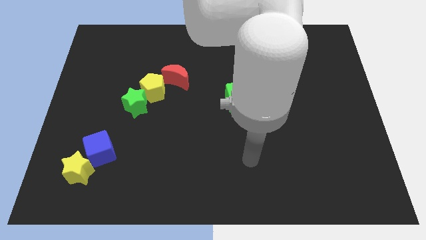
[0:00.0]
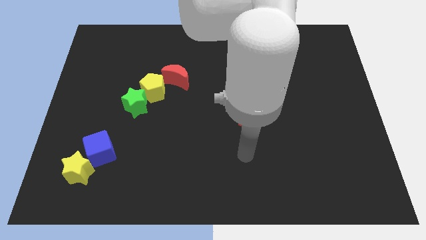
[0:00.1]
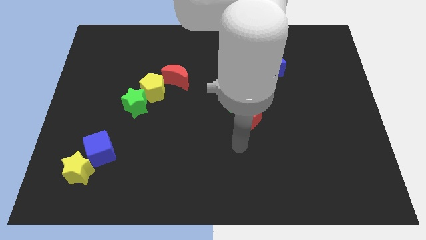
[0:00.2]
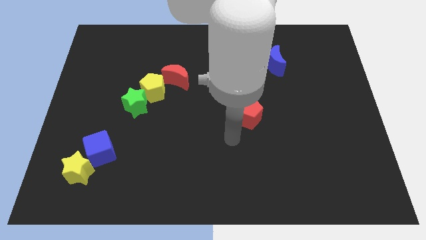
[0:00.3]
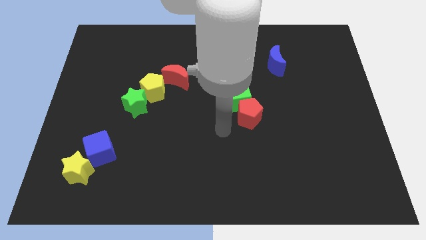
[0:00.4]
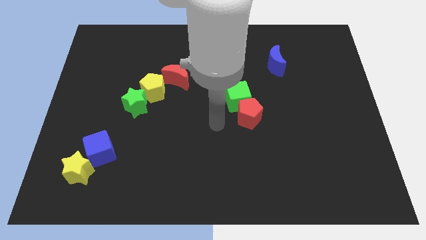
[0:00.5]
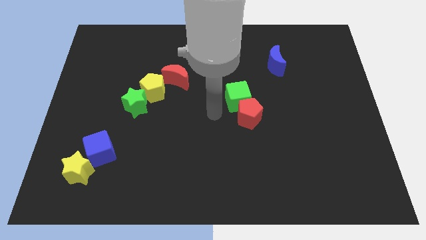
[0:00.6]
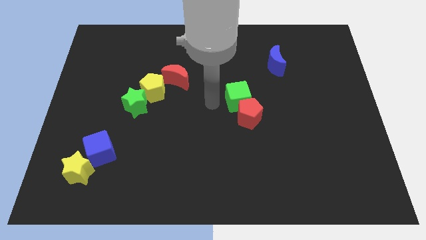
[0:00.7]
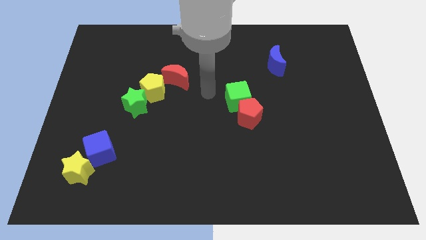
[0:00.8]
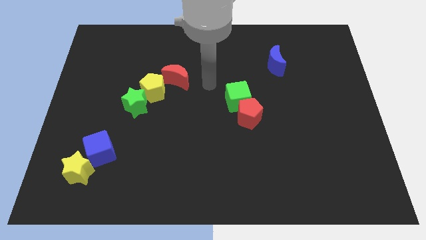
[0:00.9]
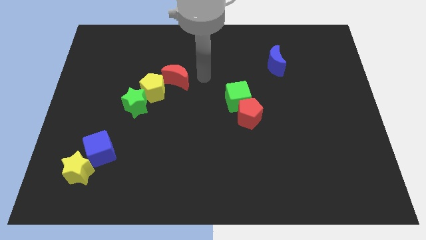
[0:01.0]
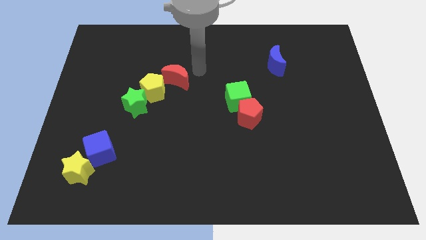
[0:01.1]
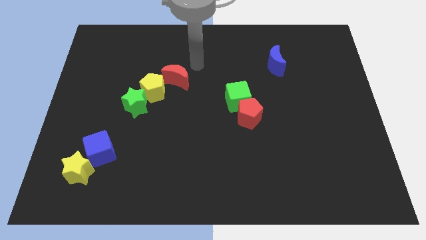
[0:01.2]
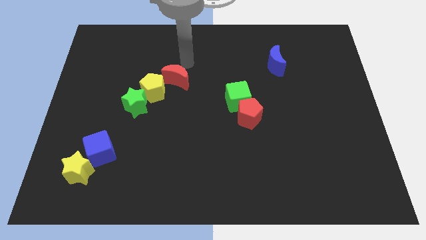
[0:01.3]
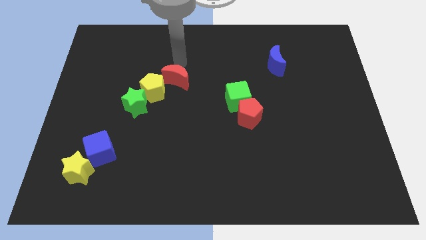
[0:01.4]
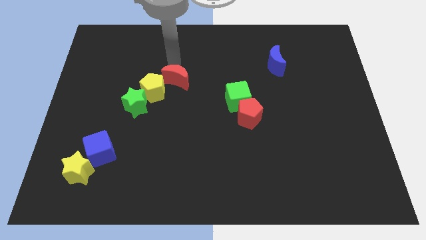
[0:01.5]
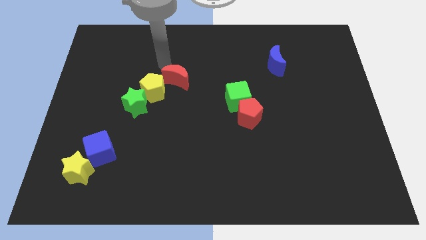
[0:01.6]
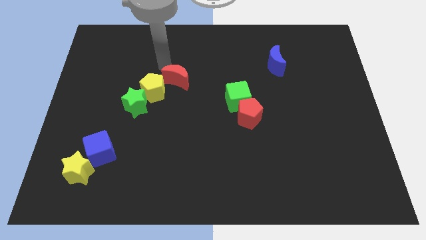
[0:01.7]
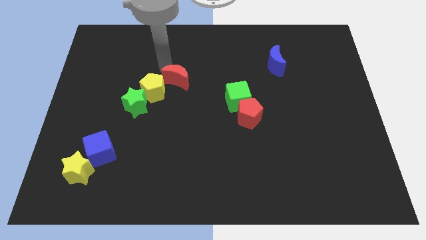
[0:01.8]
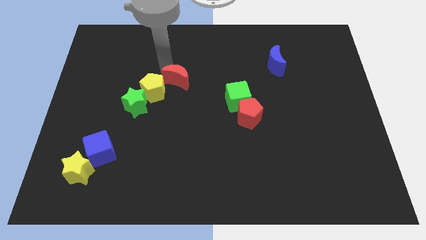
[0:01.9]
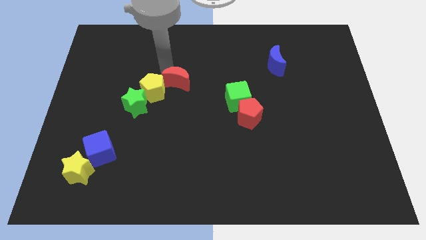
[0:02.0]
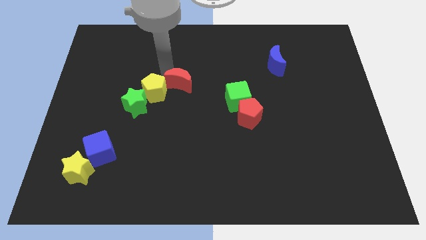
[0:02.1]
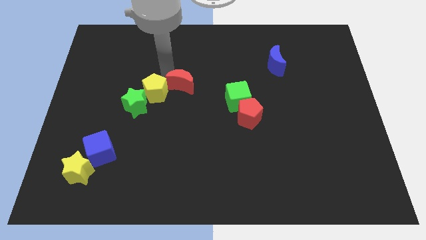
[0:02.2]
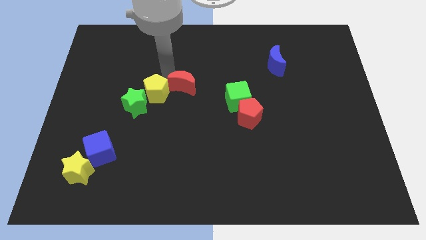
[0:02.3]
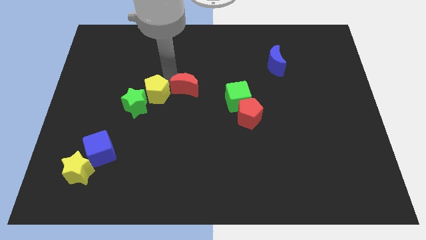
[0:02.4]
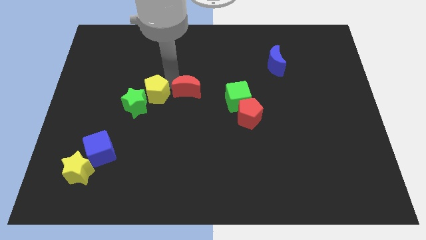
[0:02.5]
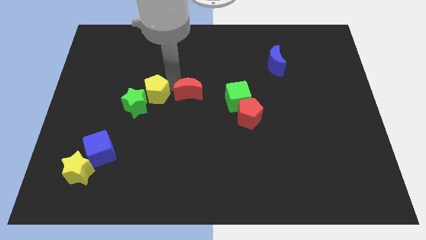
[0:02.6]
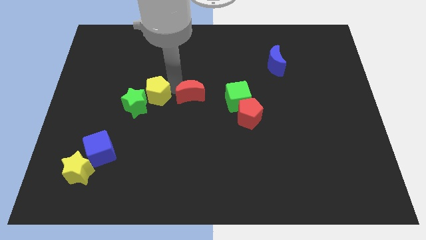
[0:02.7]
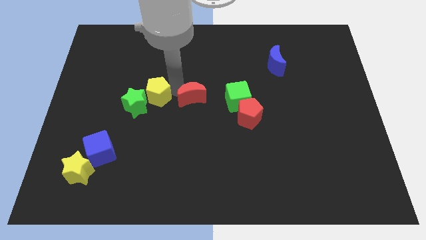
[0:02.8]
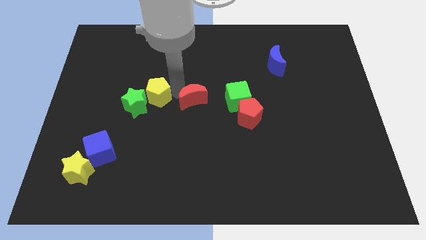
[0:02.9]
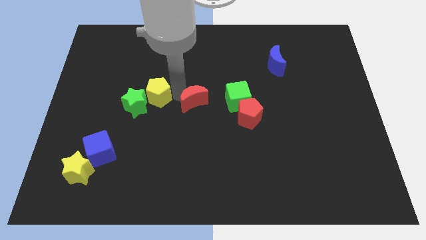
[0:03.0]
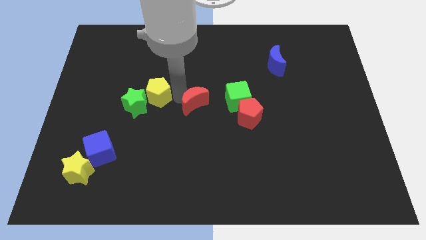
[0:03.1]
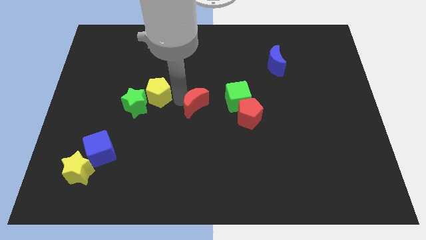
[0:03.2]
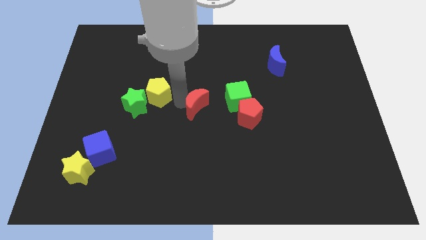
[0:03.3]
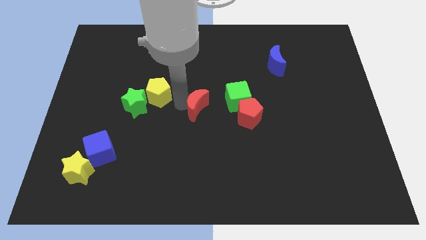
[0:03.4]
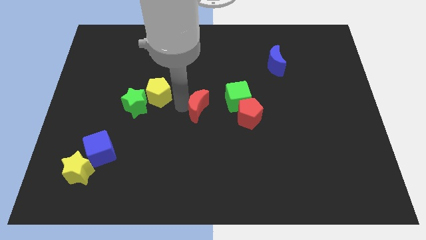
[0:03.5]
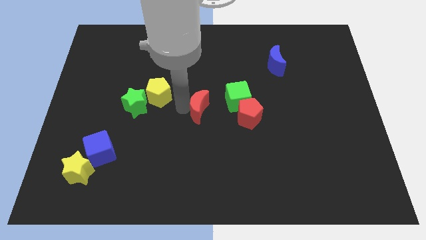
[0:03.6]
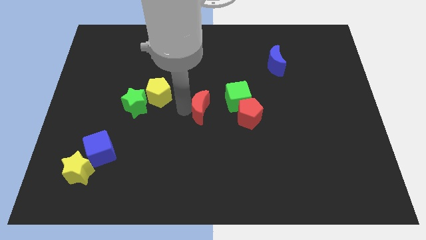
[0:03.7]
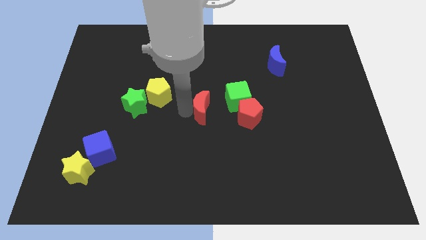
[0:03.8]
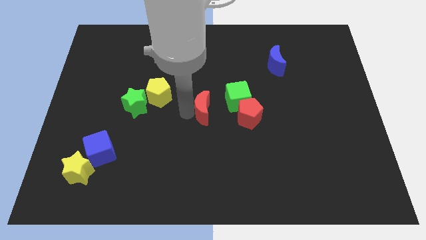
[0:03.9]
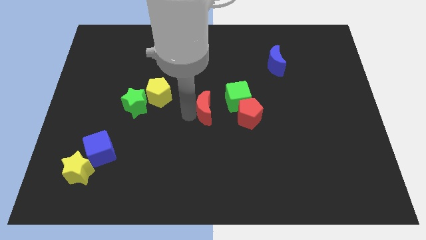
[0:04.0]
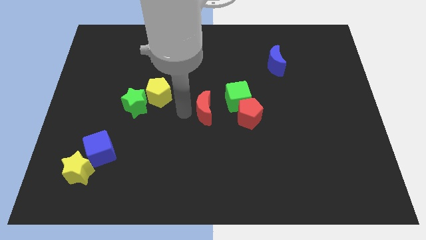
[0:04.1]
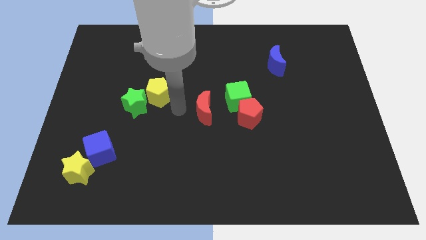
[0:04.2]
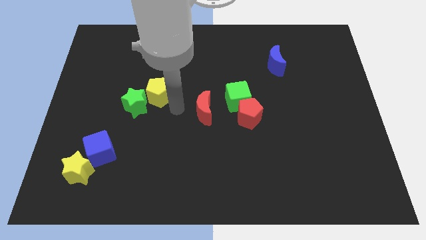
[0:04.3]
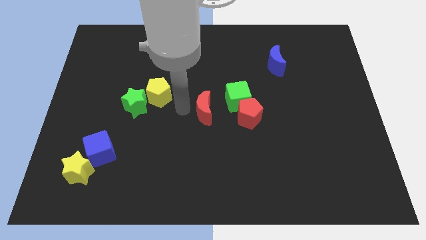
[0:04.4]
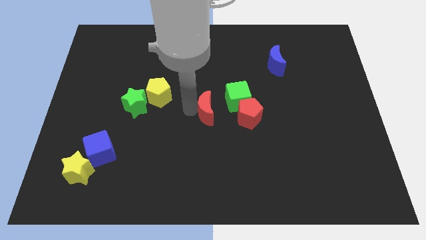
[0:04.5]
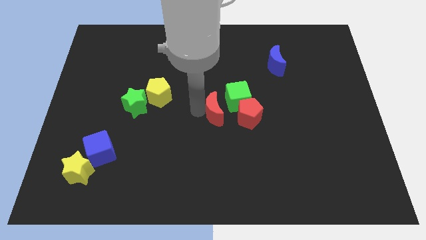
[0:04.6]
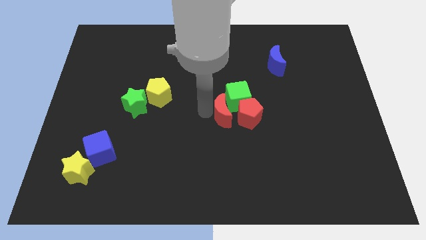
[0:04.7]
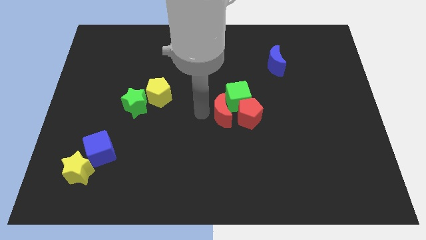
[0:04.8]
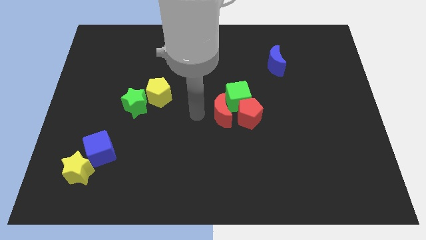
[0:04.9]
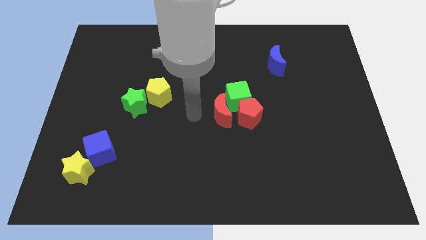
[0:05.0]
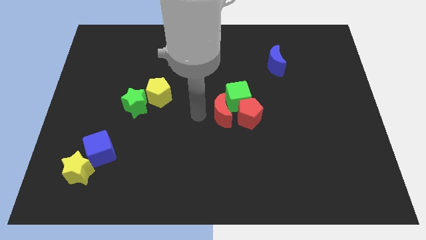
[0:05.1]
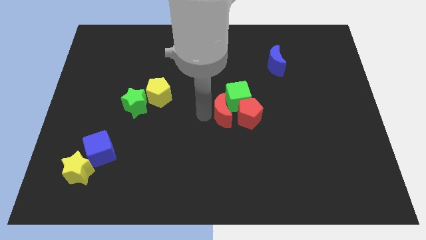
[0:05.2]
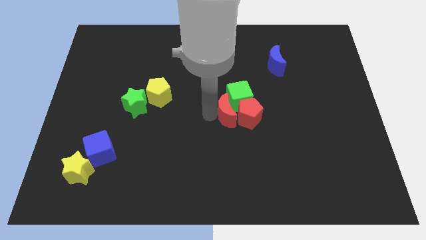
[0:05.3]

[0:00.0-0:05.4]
slide the red moon towards the red pentagon
